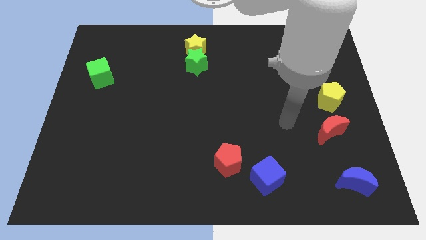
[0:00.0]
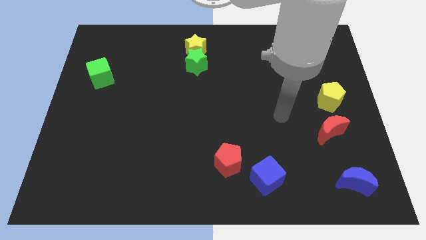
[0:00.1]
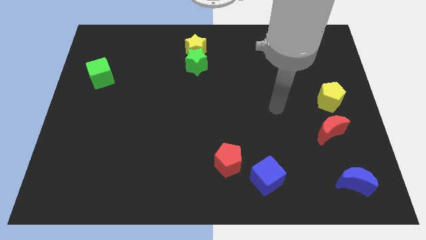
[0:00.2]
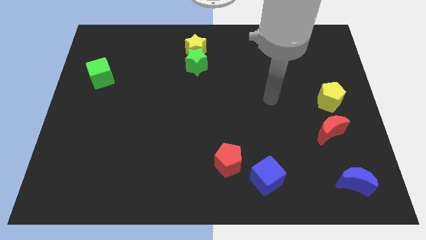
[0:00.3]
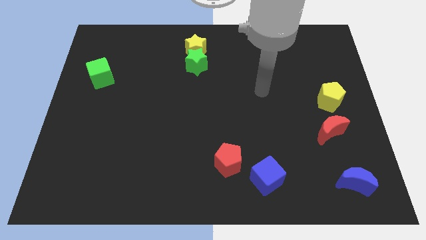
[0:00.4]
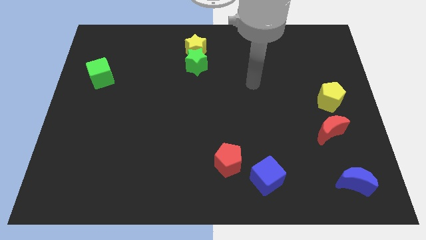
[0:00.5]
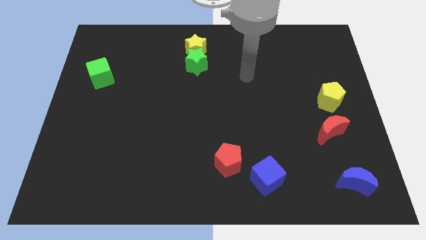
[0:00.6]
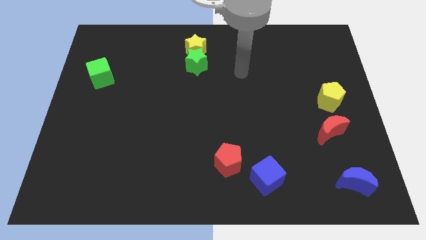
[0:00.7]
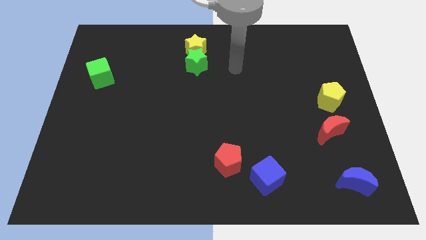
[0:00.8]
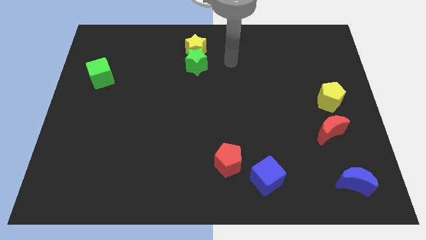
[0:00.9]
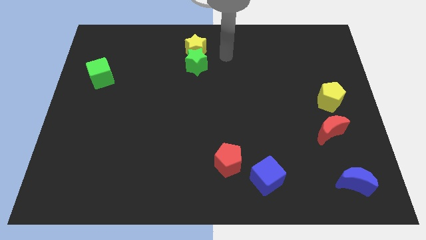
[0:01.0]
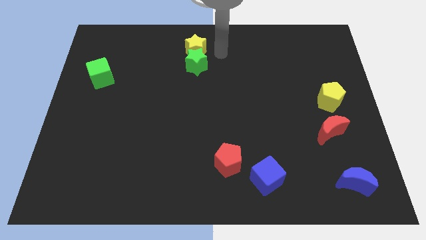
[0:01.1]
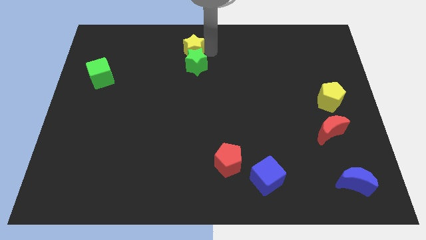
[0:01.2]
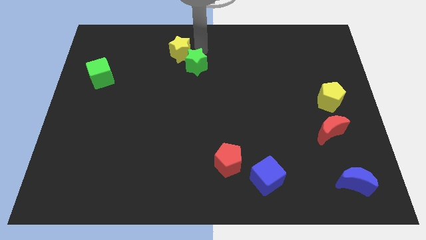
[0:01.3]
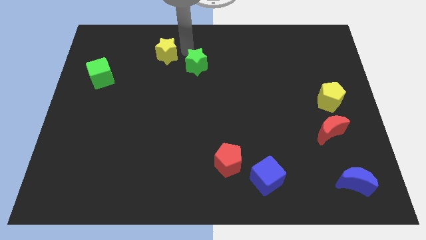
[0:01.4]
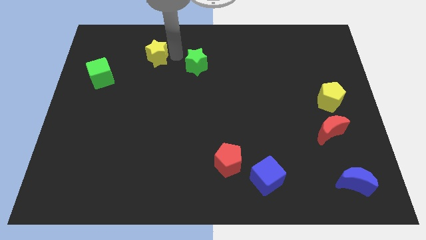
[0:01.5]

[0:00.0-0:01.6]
separate the green star from the yellow star

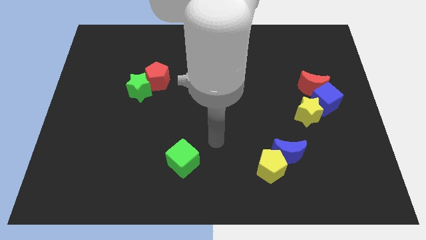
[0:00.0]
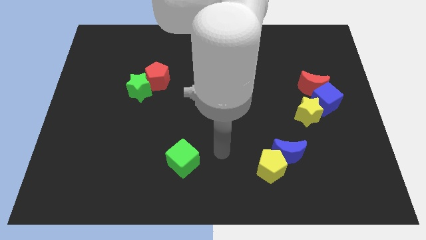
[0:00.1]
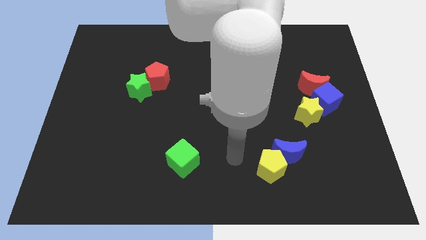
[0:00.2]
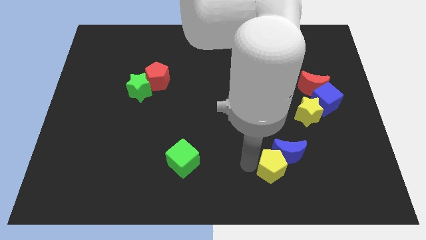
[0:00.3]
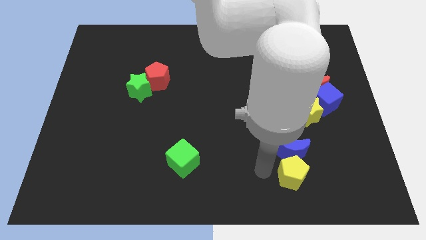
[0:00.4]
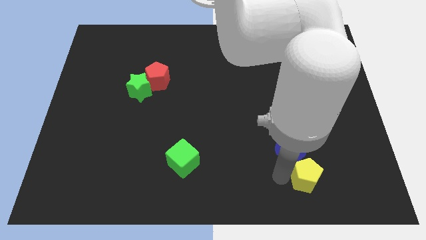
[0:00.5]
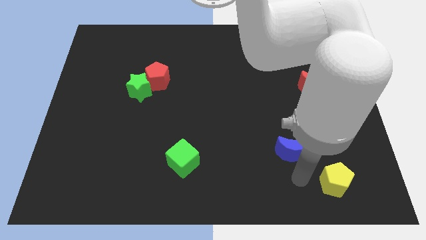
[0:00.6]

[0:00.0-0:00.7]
separate the blue moon from the yellow pentagon

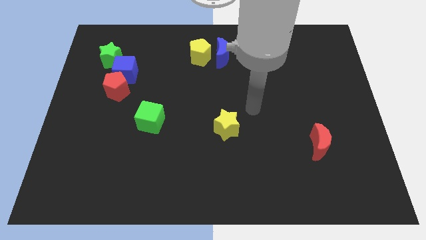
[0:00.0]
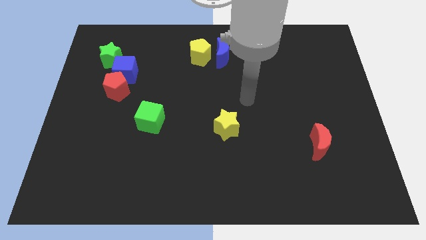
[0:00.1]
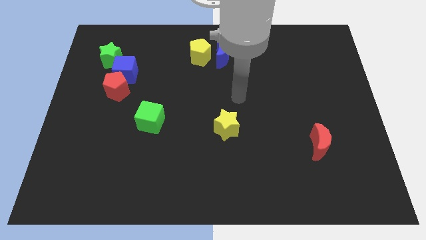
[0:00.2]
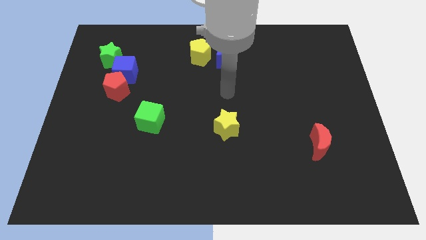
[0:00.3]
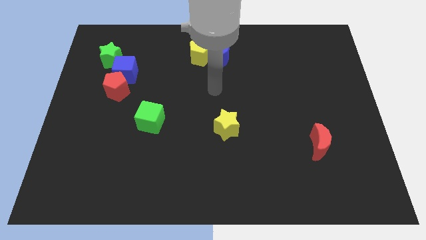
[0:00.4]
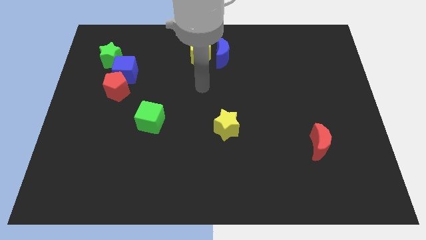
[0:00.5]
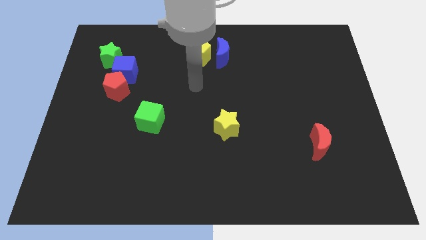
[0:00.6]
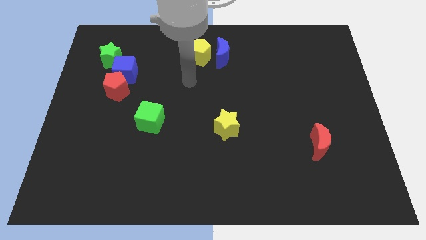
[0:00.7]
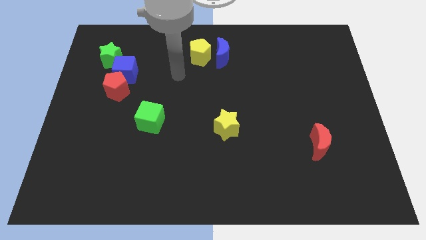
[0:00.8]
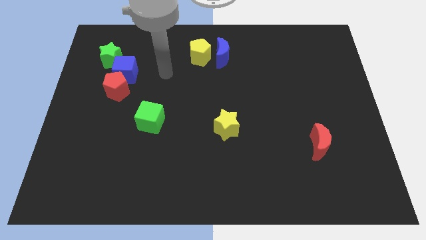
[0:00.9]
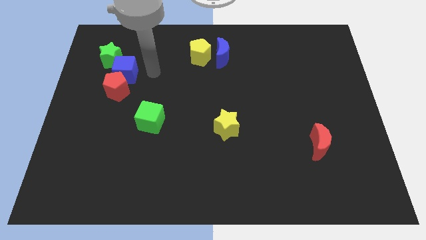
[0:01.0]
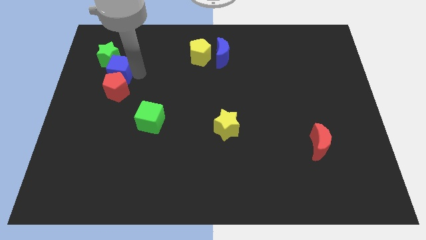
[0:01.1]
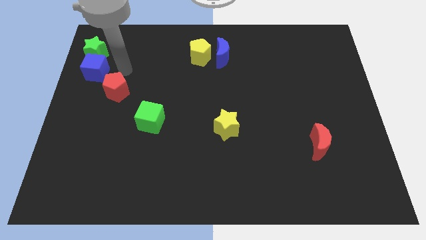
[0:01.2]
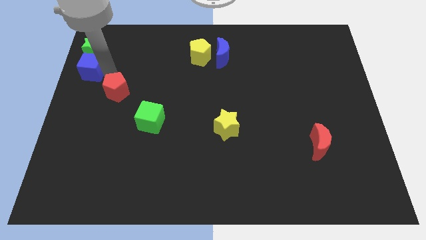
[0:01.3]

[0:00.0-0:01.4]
separate the red pentagon from the blue cube

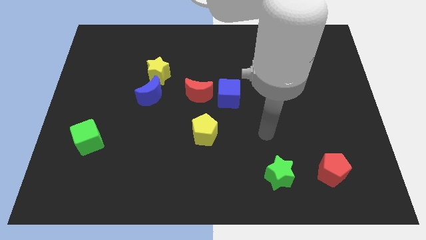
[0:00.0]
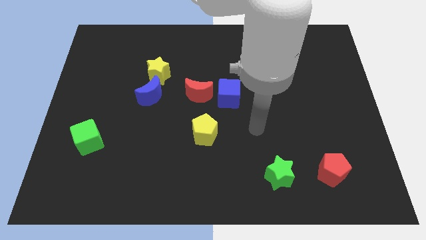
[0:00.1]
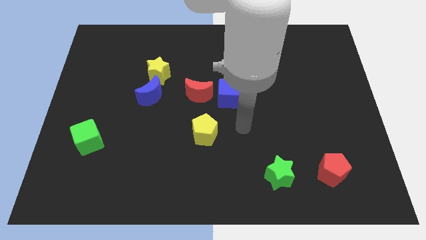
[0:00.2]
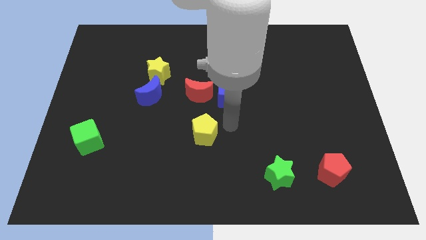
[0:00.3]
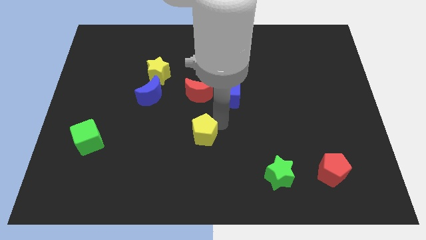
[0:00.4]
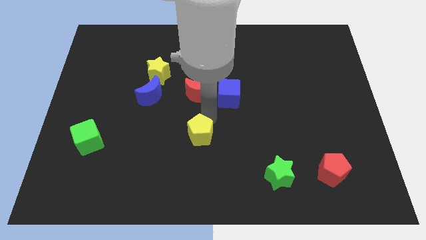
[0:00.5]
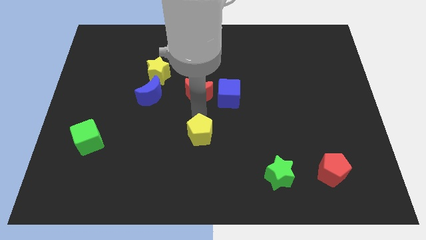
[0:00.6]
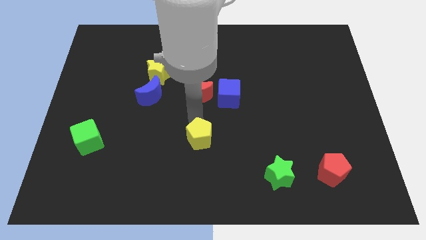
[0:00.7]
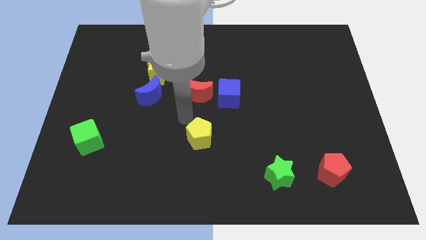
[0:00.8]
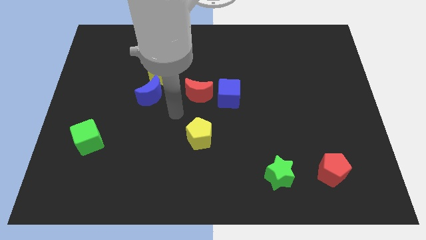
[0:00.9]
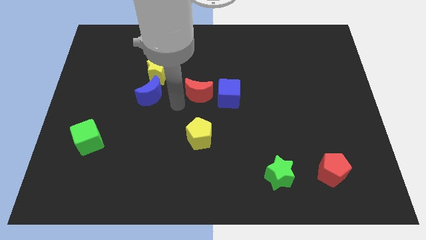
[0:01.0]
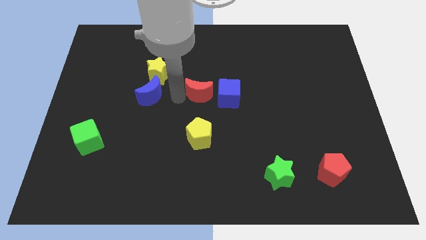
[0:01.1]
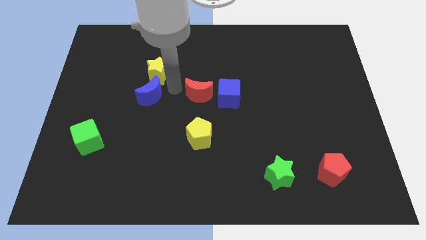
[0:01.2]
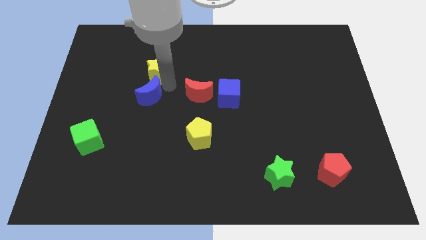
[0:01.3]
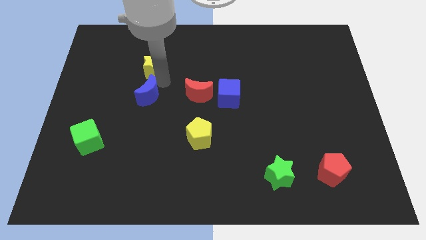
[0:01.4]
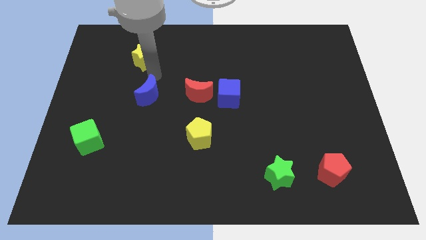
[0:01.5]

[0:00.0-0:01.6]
separate the blue moon from the yellow star

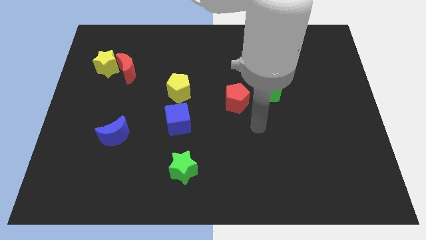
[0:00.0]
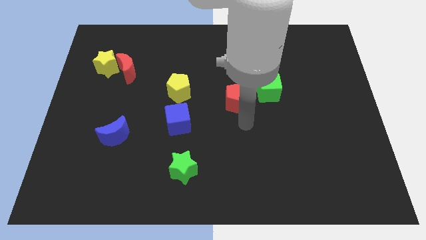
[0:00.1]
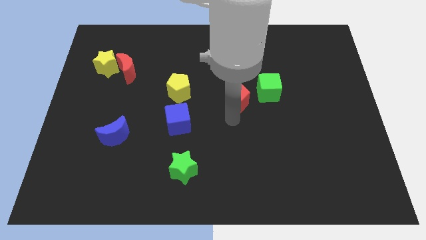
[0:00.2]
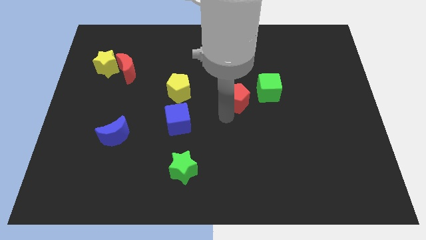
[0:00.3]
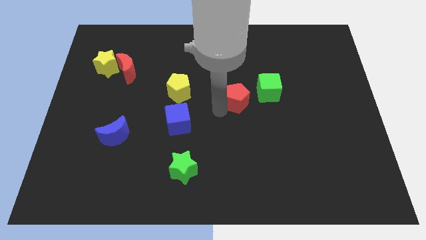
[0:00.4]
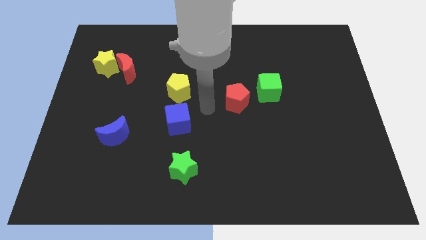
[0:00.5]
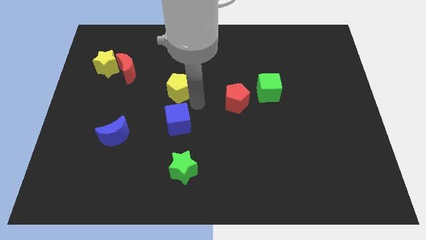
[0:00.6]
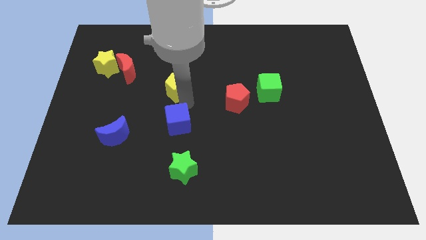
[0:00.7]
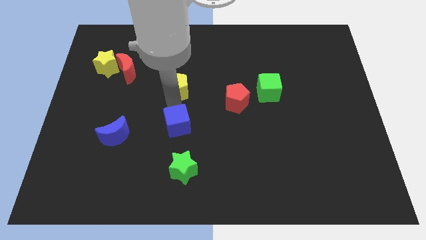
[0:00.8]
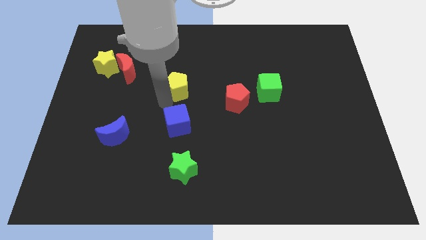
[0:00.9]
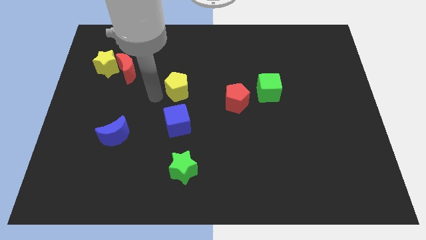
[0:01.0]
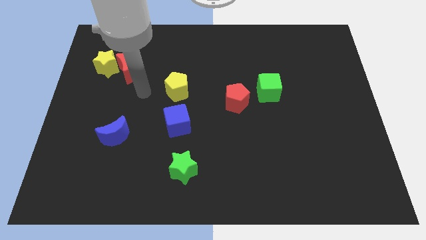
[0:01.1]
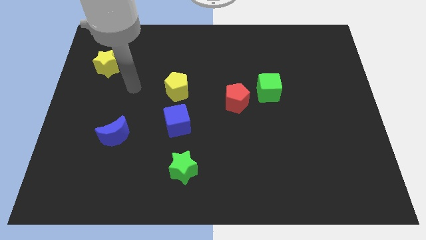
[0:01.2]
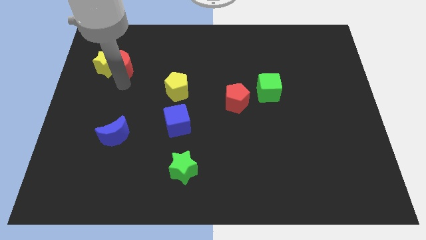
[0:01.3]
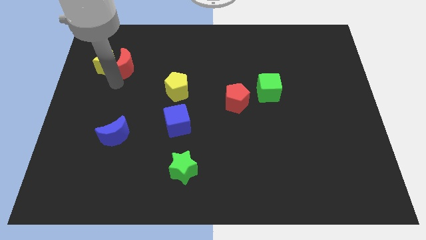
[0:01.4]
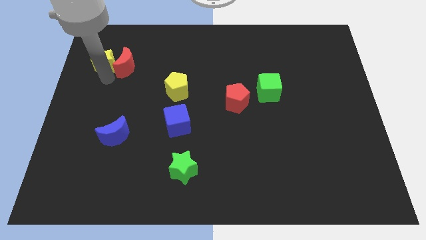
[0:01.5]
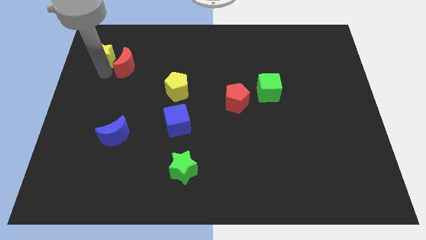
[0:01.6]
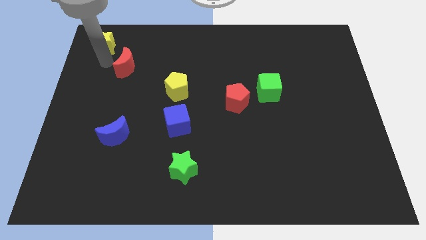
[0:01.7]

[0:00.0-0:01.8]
pull the red moon apart from the yellow star

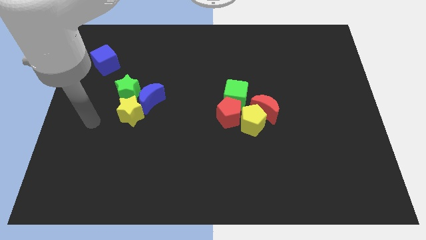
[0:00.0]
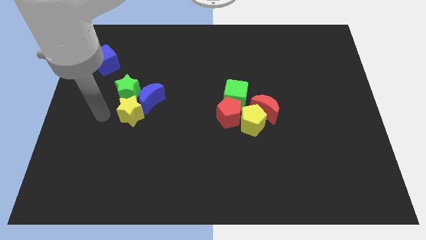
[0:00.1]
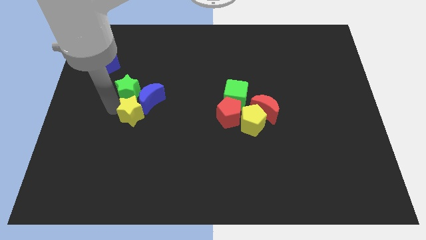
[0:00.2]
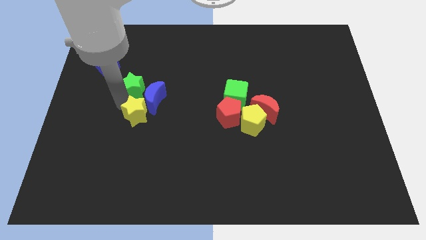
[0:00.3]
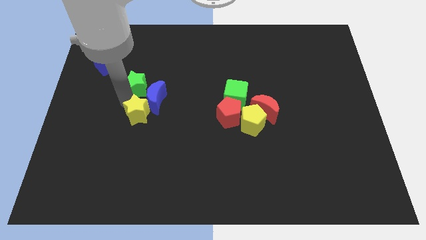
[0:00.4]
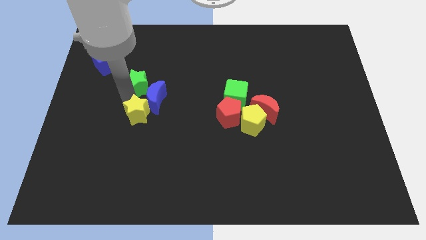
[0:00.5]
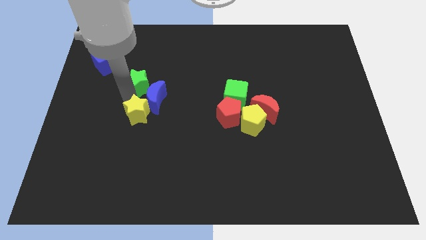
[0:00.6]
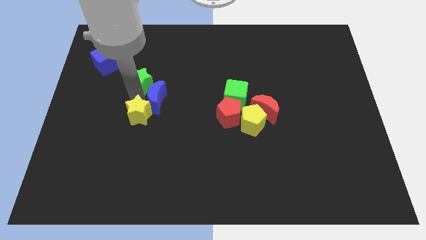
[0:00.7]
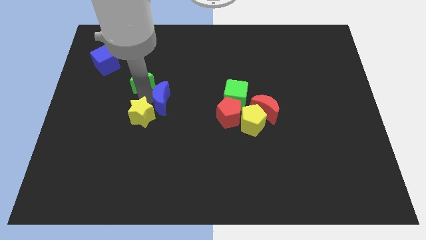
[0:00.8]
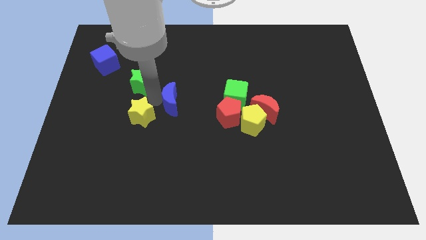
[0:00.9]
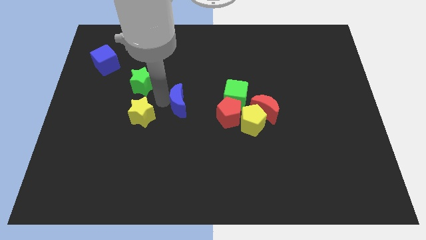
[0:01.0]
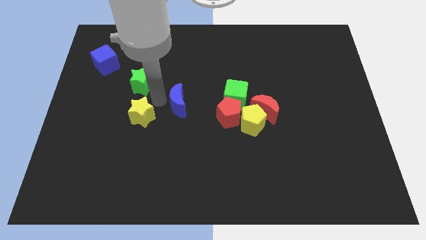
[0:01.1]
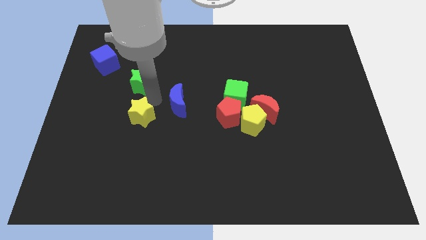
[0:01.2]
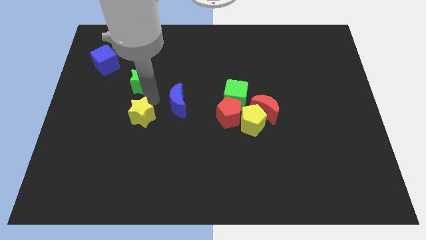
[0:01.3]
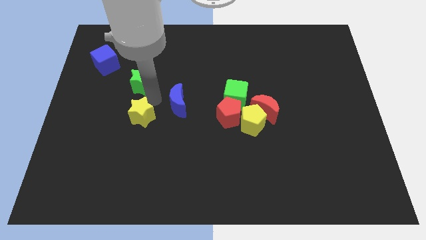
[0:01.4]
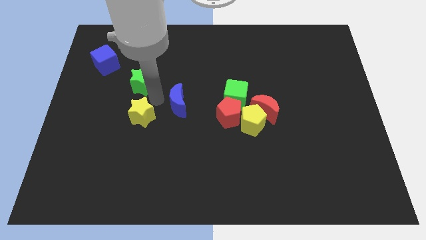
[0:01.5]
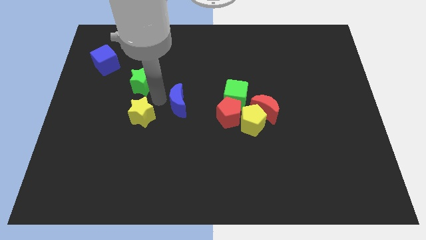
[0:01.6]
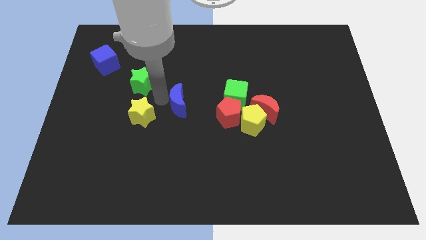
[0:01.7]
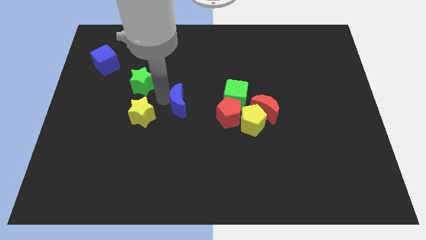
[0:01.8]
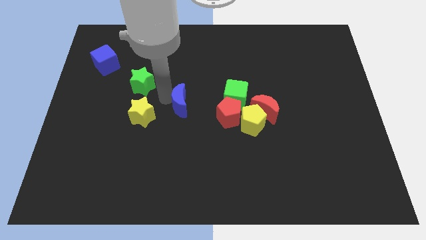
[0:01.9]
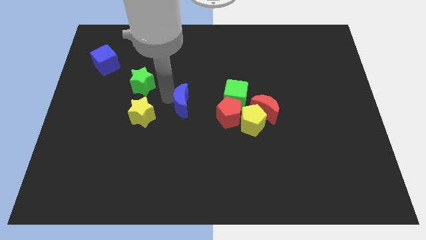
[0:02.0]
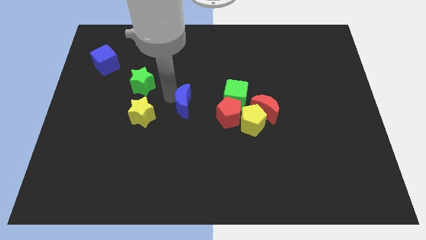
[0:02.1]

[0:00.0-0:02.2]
separate the blue moon from the green star and yellow star
